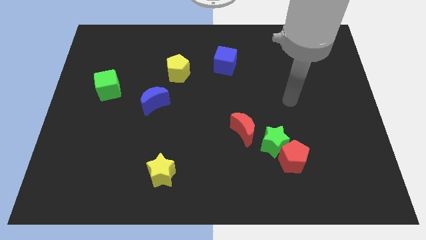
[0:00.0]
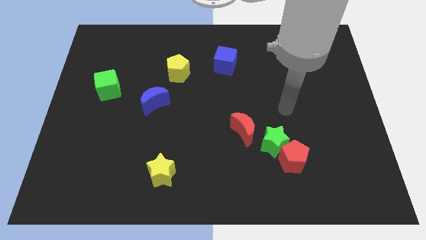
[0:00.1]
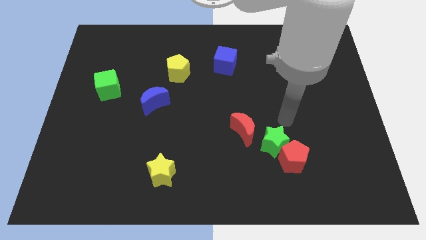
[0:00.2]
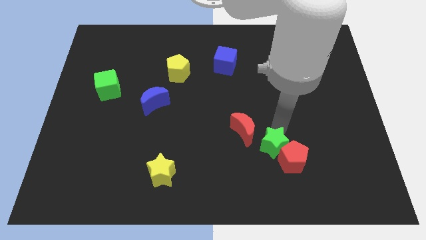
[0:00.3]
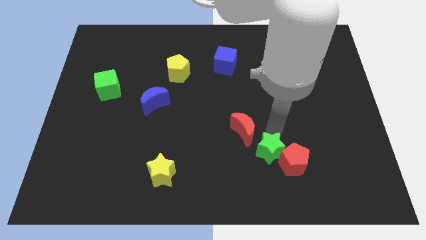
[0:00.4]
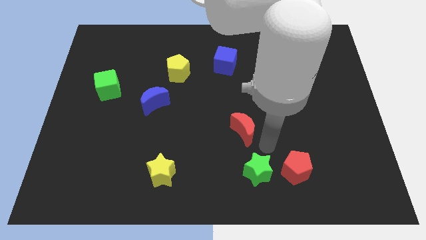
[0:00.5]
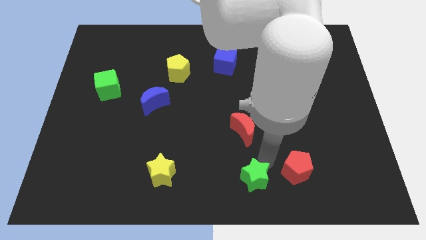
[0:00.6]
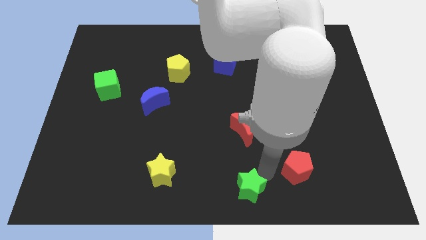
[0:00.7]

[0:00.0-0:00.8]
move the red pentagon away from the green star

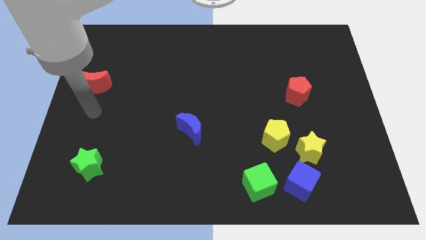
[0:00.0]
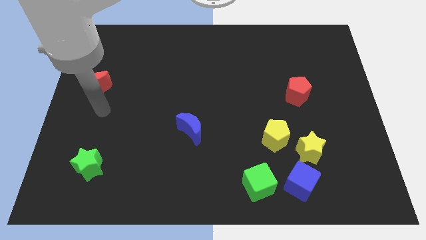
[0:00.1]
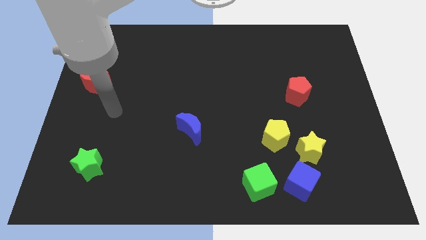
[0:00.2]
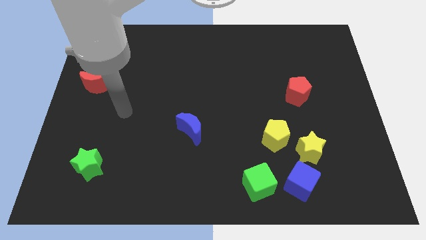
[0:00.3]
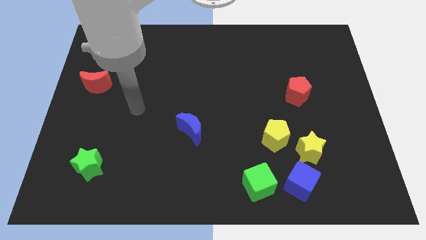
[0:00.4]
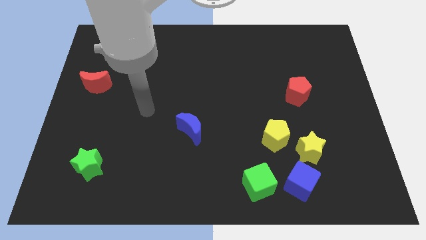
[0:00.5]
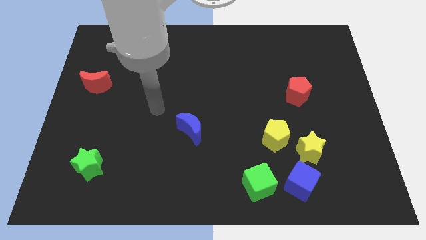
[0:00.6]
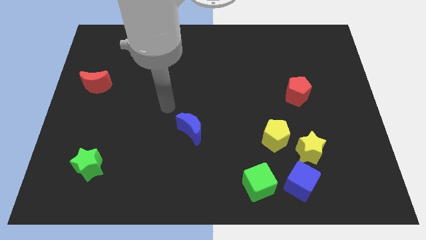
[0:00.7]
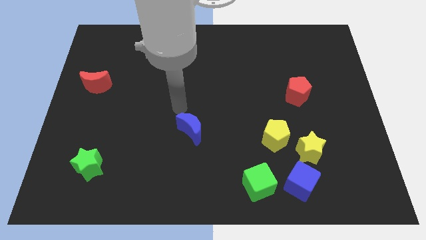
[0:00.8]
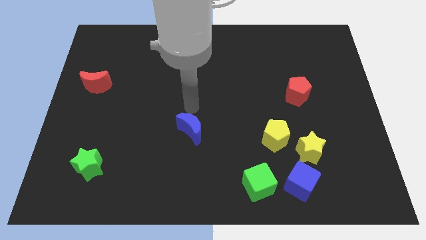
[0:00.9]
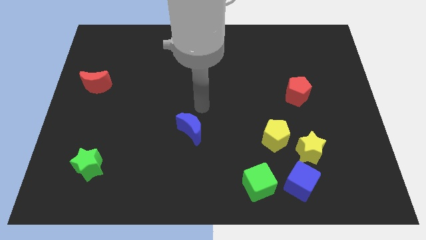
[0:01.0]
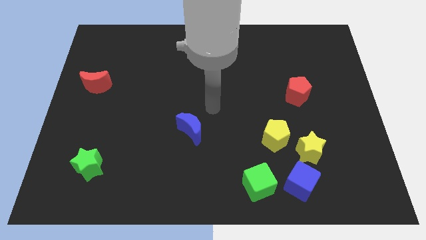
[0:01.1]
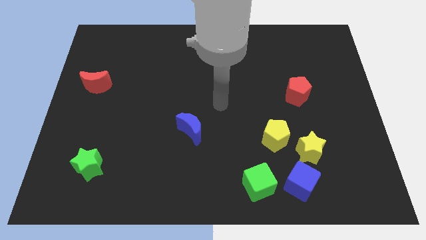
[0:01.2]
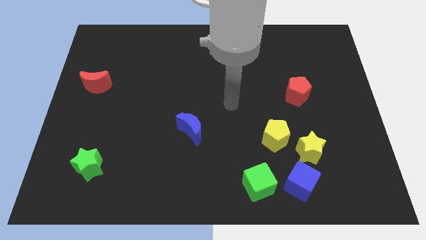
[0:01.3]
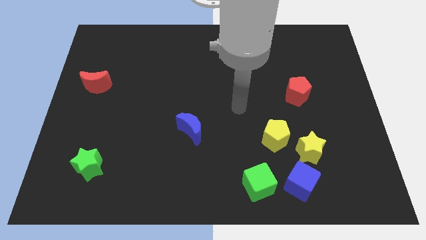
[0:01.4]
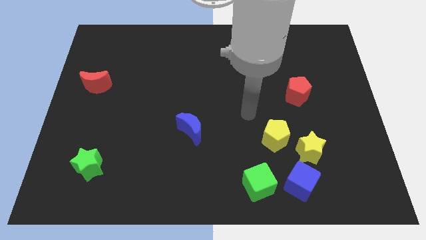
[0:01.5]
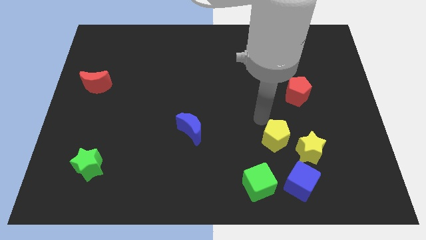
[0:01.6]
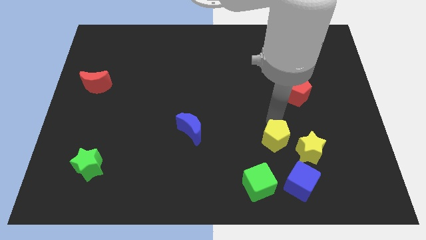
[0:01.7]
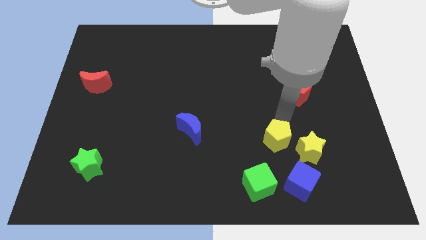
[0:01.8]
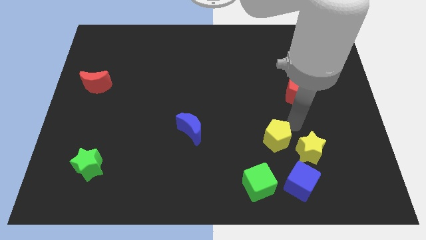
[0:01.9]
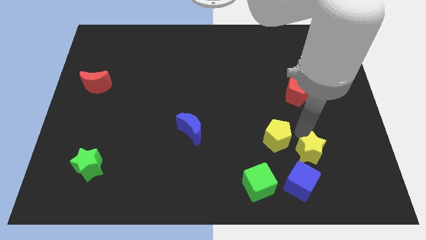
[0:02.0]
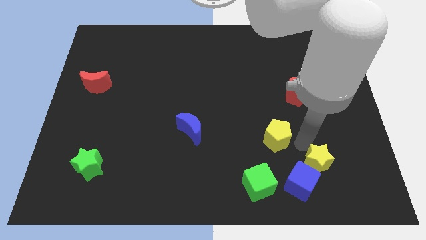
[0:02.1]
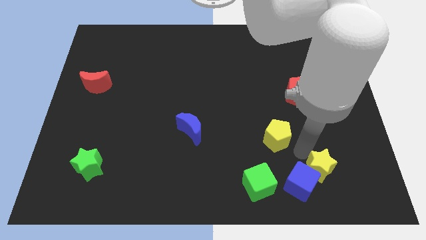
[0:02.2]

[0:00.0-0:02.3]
pull the yellow pentagon apart from the yellow star

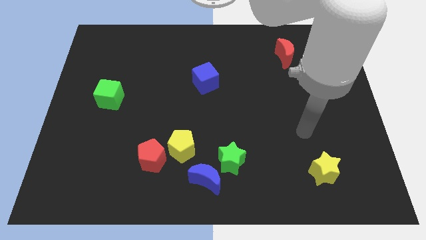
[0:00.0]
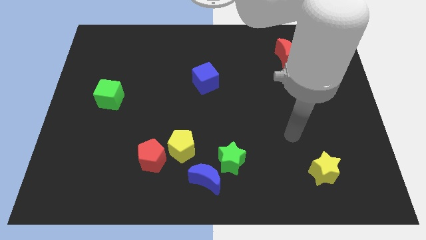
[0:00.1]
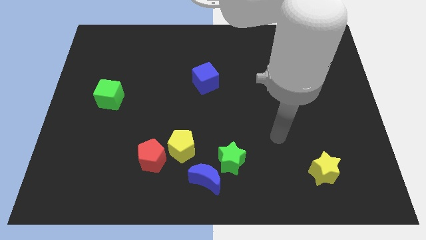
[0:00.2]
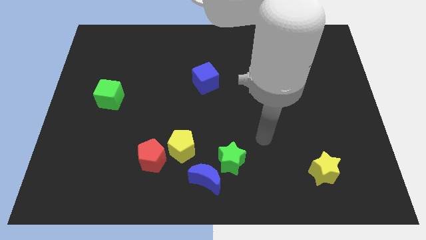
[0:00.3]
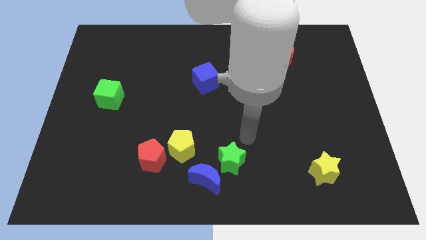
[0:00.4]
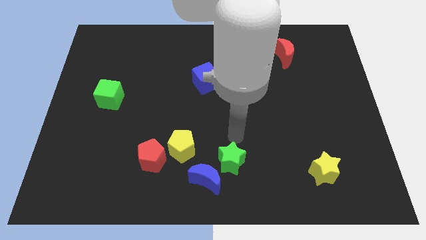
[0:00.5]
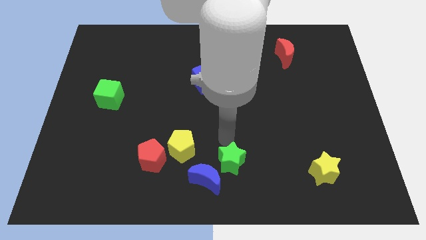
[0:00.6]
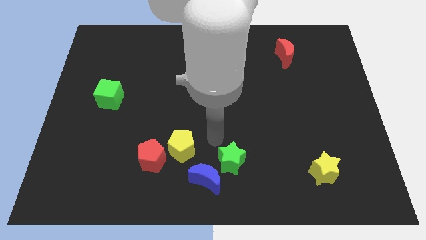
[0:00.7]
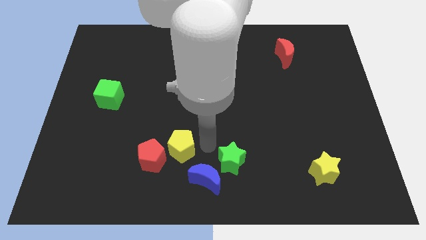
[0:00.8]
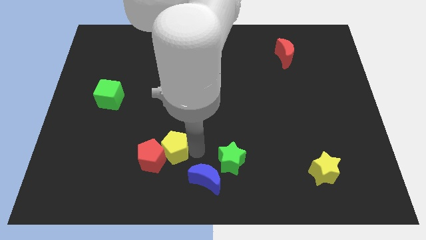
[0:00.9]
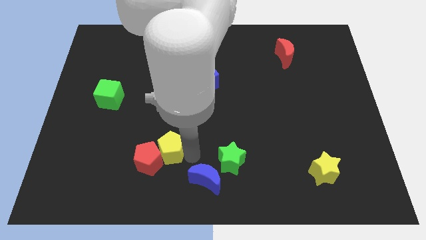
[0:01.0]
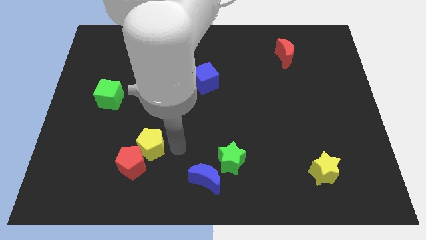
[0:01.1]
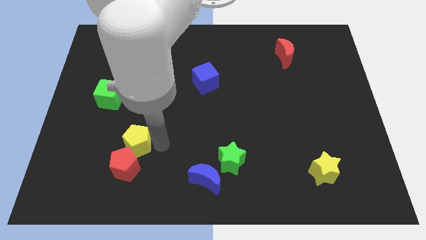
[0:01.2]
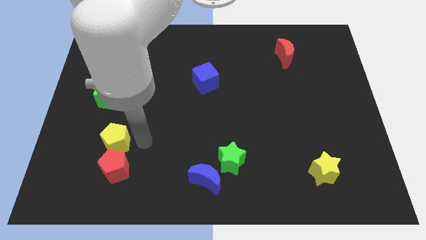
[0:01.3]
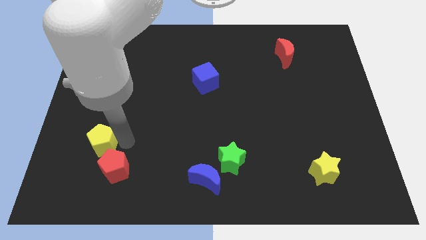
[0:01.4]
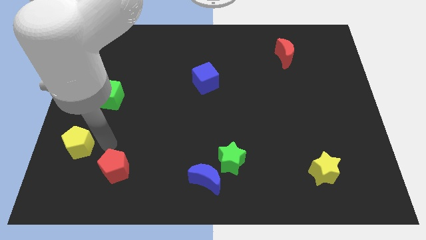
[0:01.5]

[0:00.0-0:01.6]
move the red pentagon away from the yellow pentagon

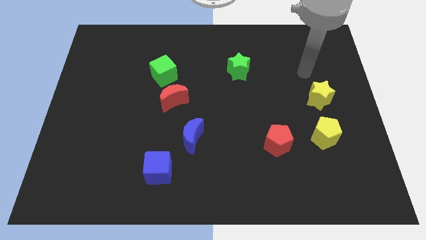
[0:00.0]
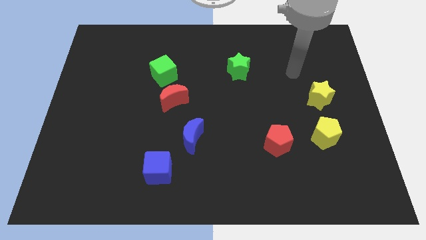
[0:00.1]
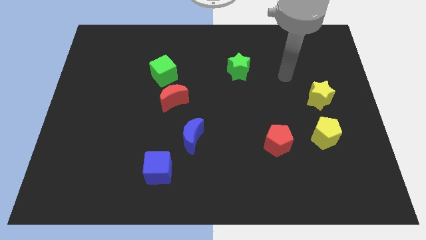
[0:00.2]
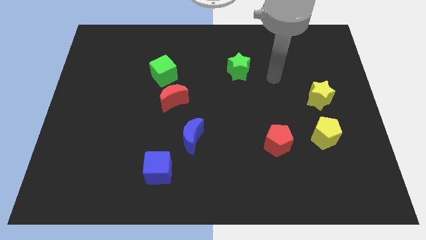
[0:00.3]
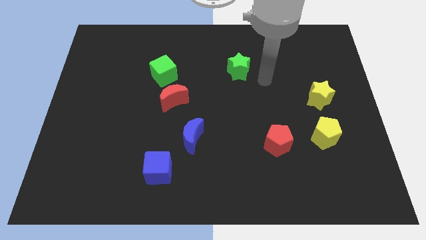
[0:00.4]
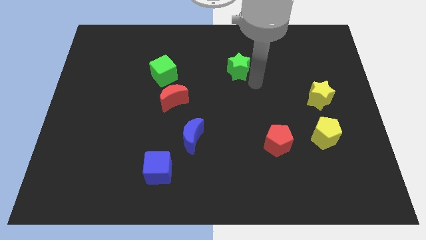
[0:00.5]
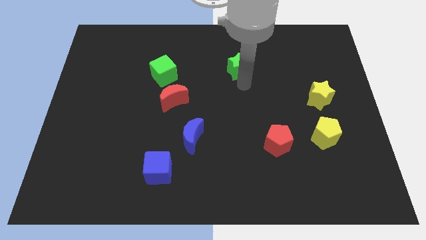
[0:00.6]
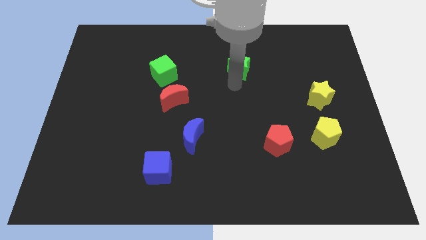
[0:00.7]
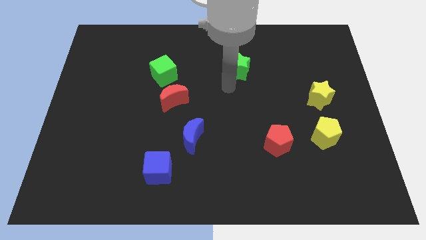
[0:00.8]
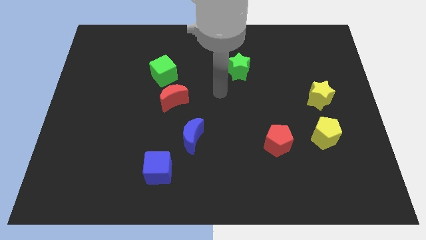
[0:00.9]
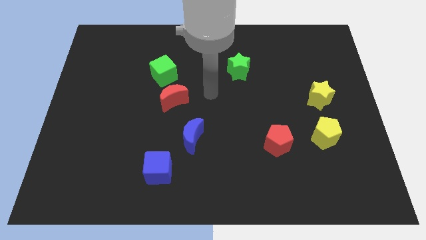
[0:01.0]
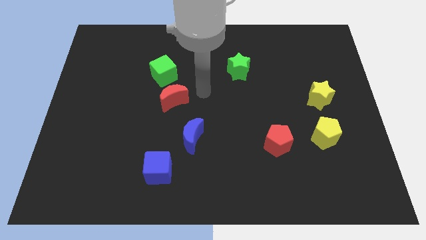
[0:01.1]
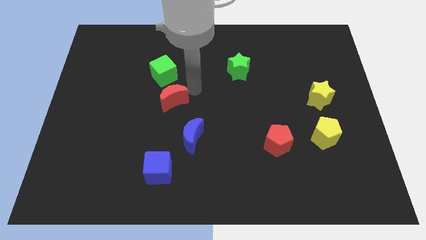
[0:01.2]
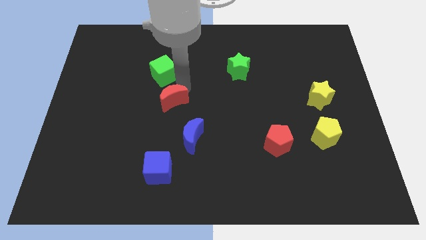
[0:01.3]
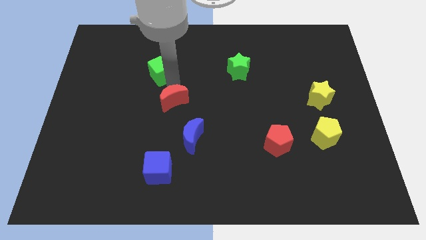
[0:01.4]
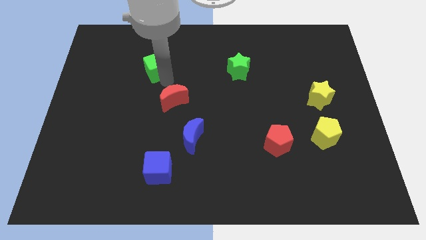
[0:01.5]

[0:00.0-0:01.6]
pull the red moon apart from the green cube

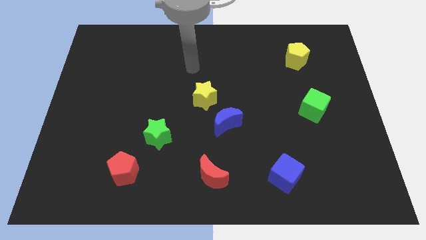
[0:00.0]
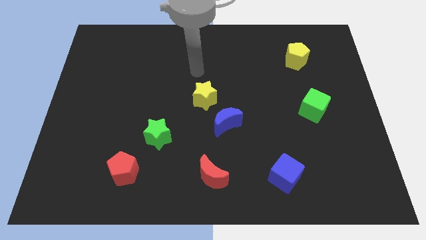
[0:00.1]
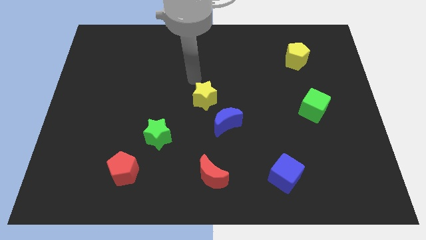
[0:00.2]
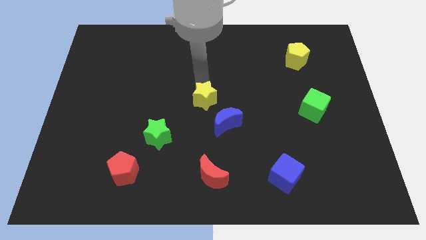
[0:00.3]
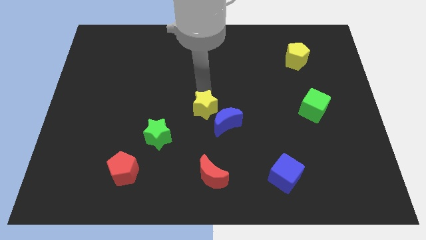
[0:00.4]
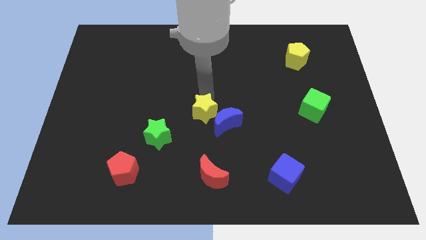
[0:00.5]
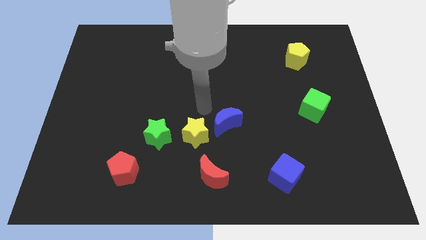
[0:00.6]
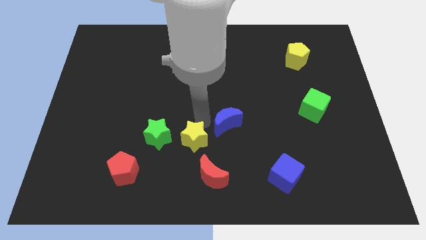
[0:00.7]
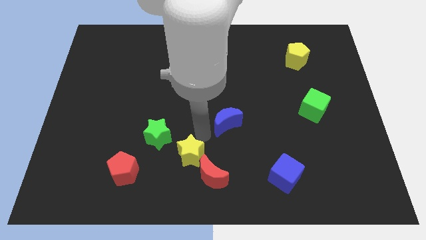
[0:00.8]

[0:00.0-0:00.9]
move the blue moon away from the yellow star

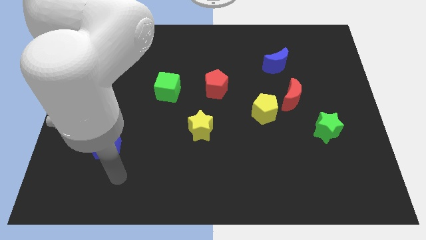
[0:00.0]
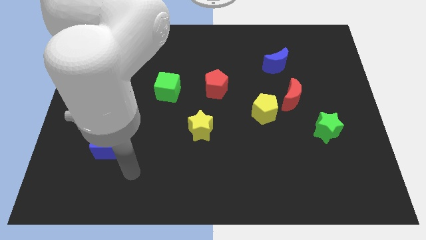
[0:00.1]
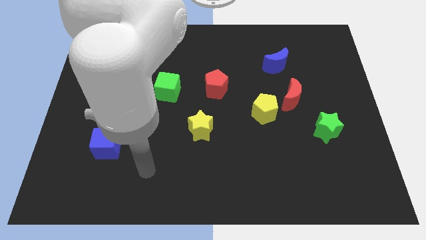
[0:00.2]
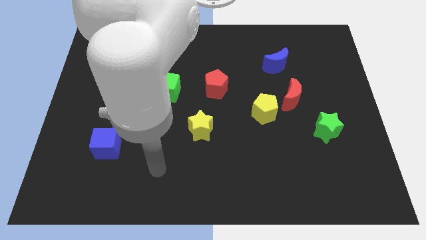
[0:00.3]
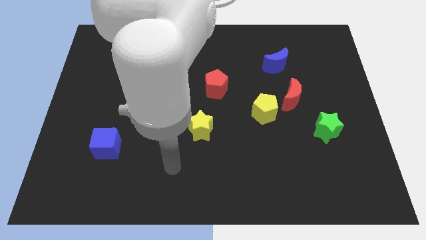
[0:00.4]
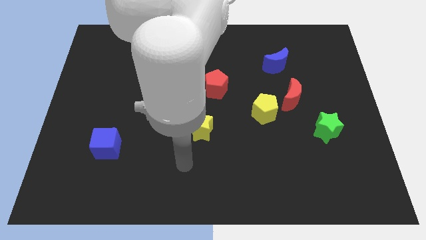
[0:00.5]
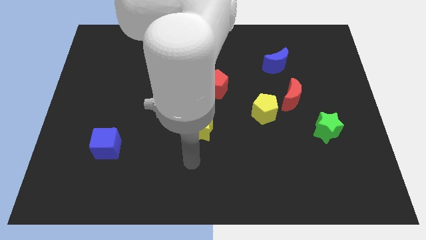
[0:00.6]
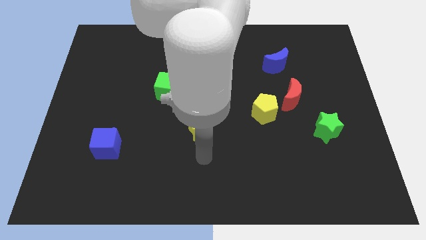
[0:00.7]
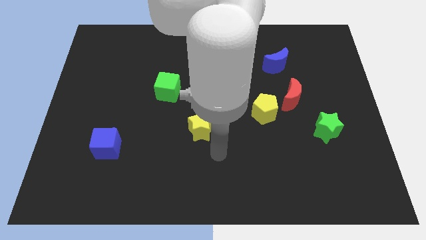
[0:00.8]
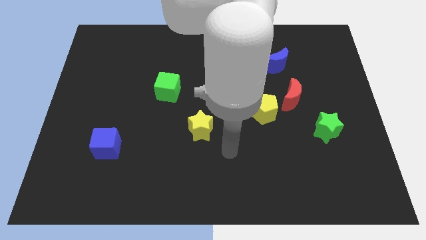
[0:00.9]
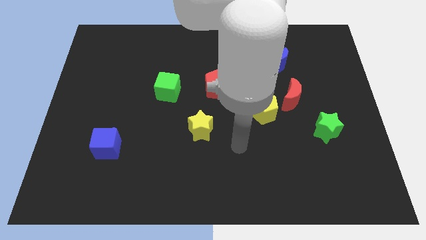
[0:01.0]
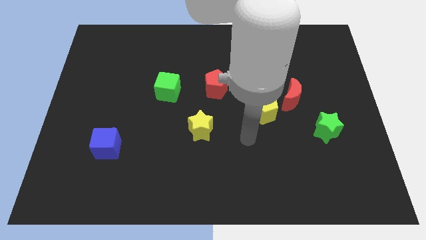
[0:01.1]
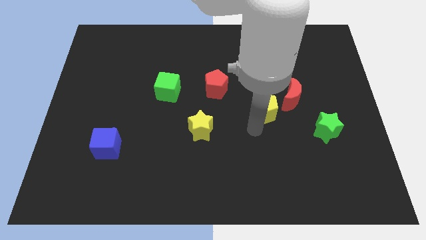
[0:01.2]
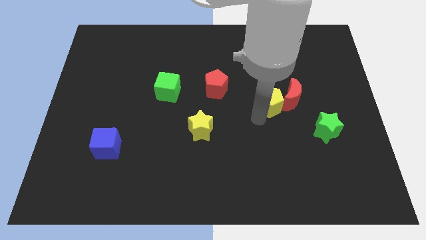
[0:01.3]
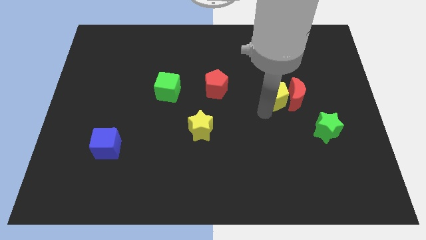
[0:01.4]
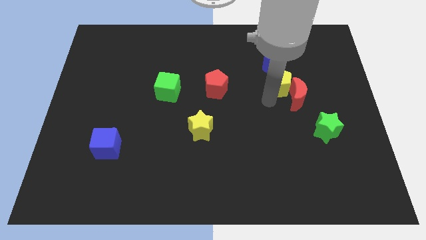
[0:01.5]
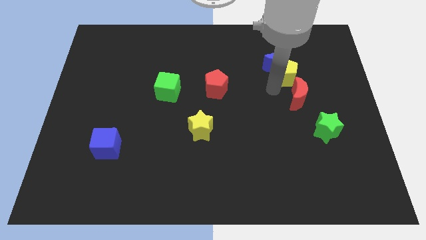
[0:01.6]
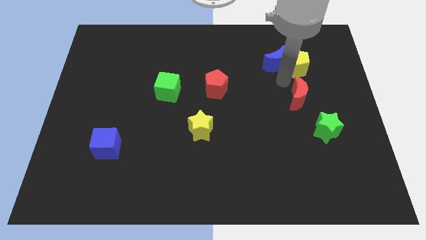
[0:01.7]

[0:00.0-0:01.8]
separate the red moon from the yellow pentagon

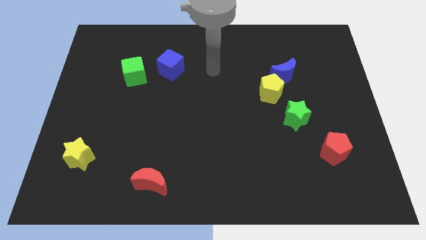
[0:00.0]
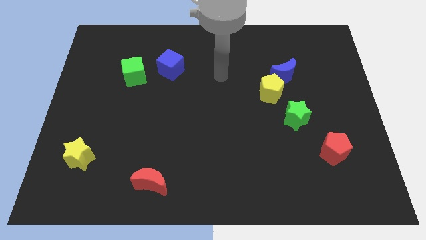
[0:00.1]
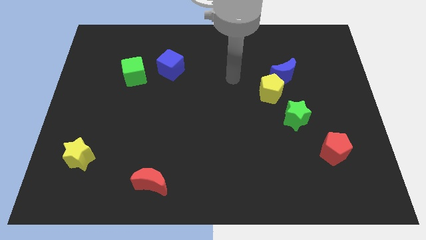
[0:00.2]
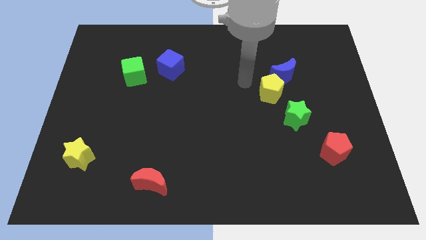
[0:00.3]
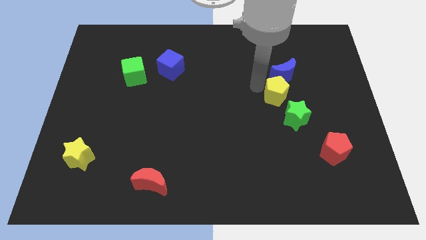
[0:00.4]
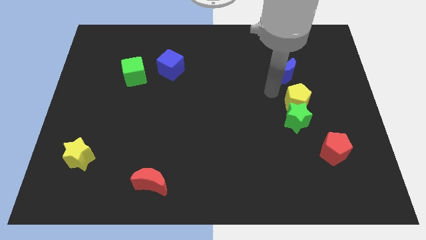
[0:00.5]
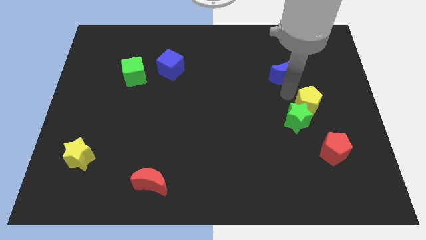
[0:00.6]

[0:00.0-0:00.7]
move the blue moon away from the yellow pentagon
